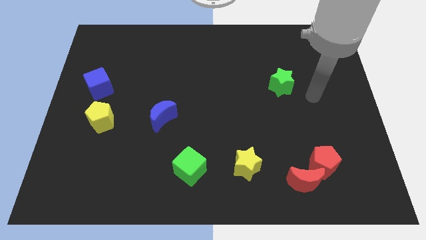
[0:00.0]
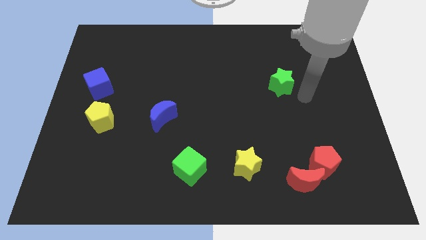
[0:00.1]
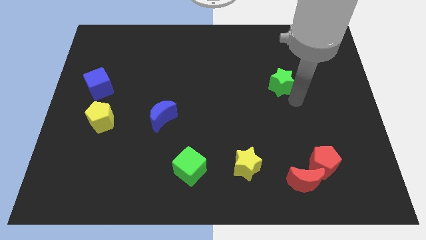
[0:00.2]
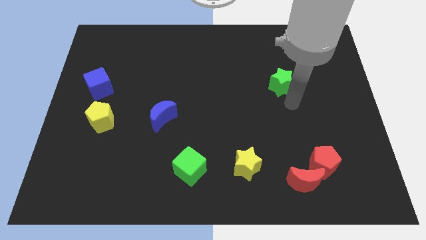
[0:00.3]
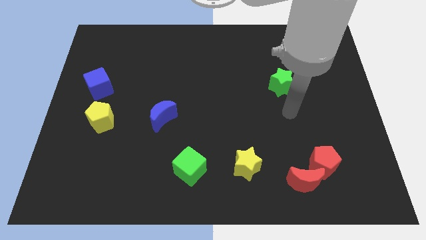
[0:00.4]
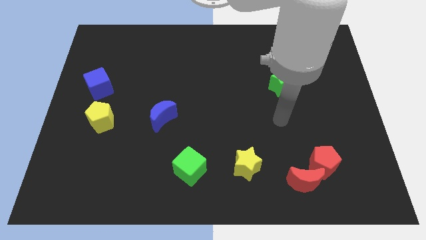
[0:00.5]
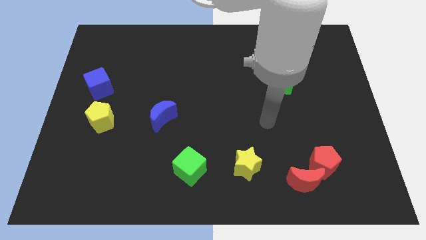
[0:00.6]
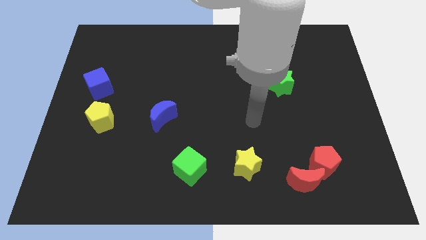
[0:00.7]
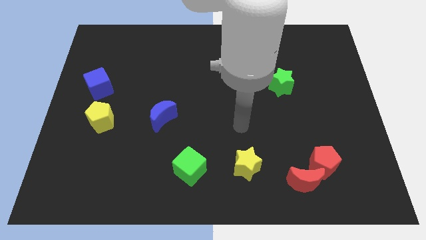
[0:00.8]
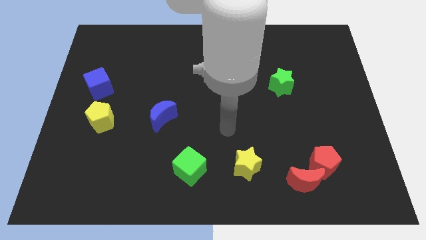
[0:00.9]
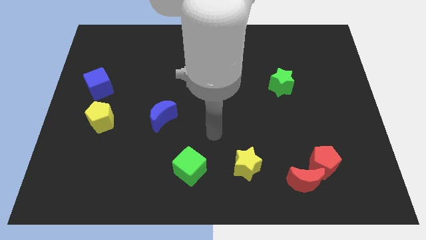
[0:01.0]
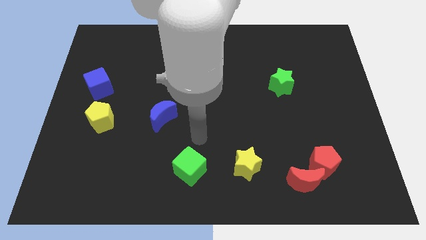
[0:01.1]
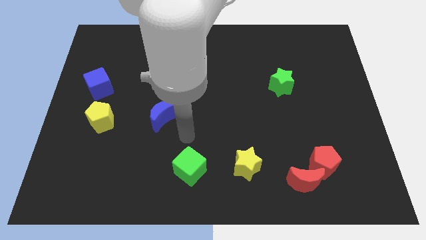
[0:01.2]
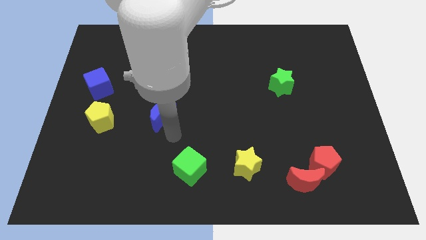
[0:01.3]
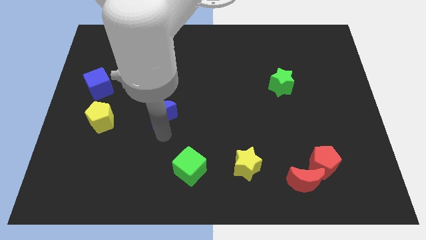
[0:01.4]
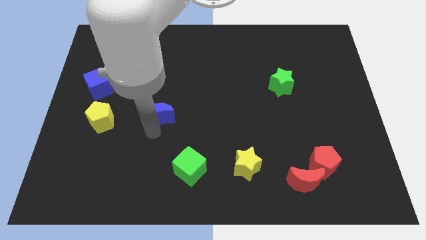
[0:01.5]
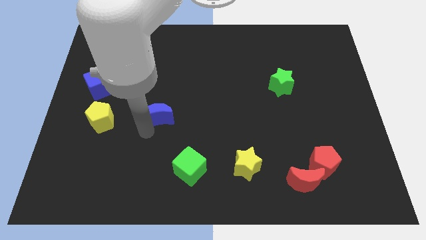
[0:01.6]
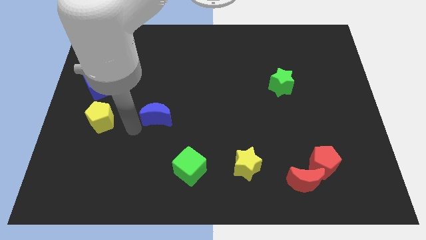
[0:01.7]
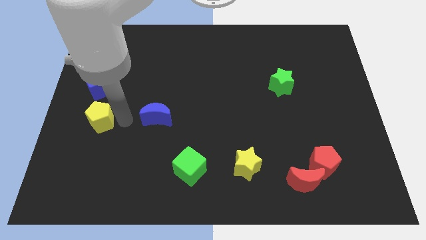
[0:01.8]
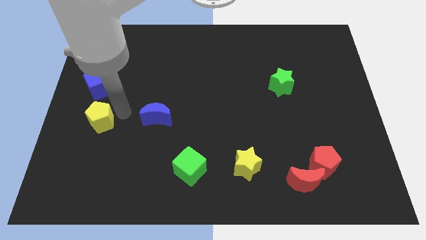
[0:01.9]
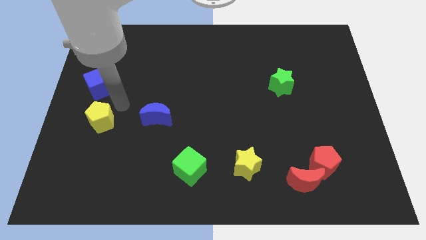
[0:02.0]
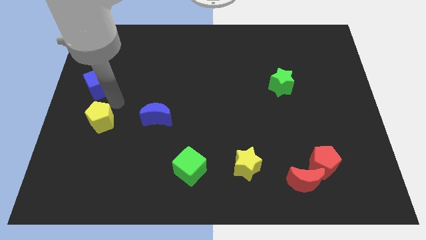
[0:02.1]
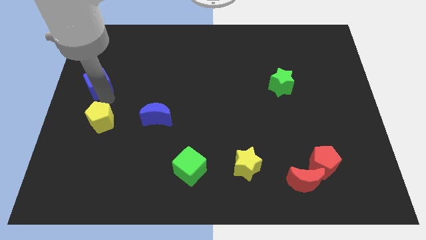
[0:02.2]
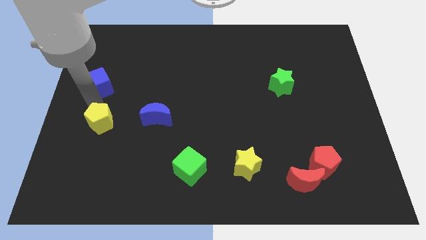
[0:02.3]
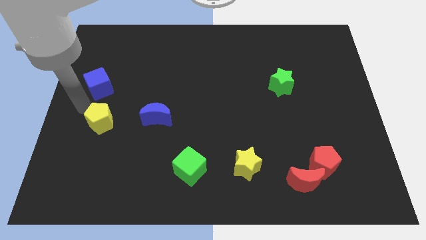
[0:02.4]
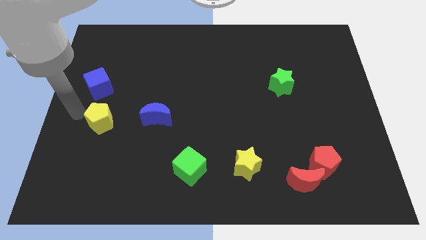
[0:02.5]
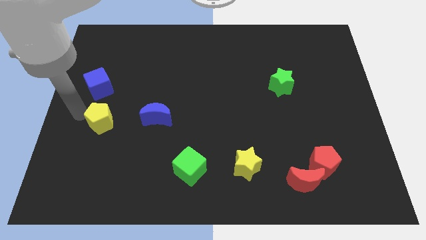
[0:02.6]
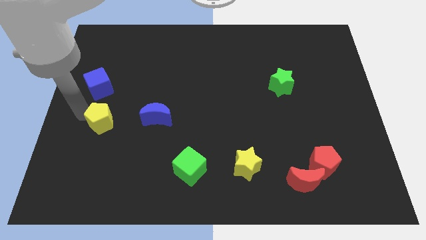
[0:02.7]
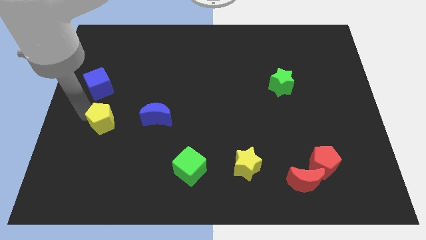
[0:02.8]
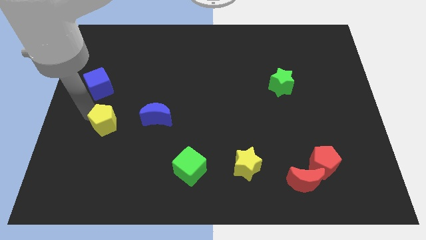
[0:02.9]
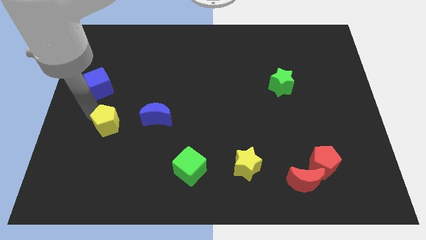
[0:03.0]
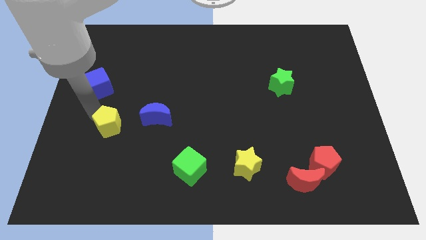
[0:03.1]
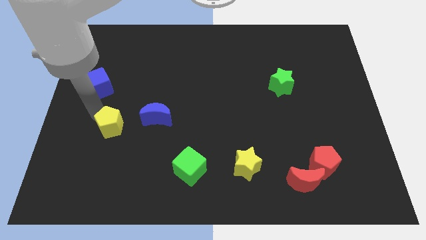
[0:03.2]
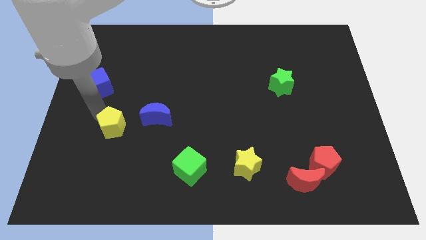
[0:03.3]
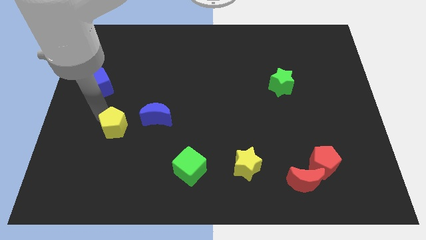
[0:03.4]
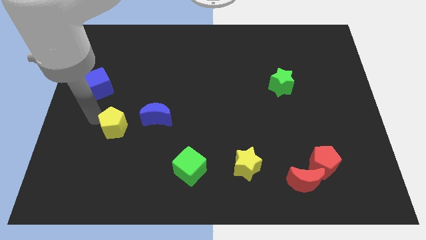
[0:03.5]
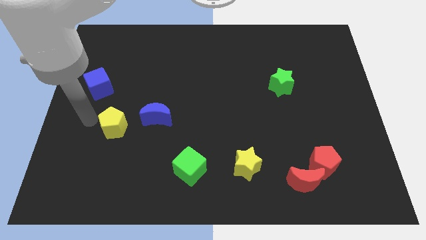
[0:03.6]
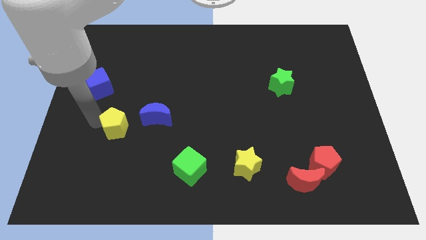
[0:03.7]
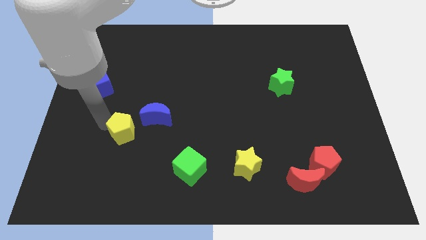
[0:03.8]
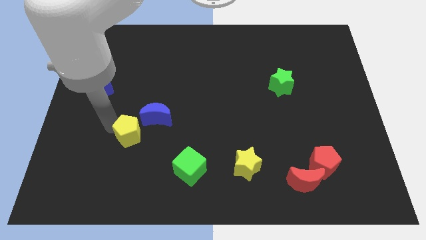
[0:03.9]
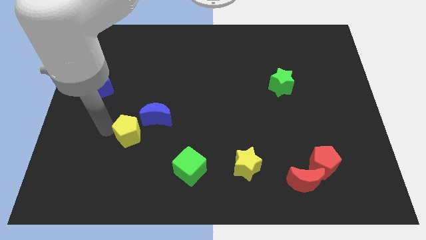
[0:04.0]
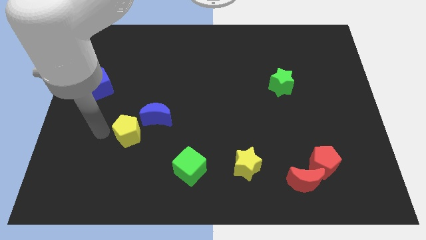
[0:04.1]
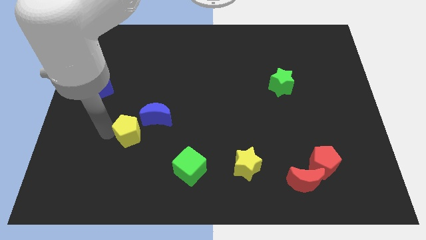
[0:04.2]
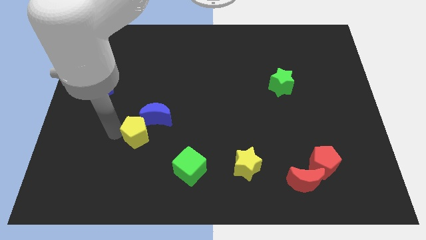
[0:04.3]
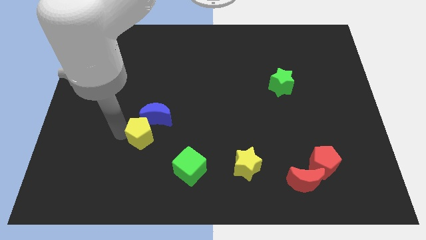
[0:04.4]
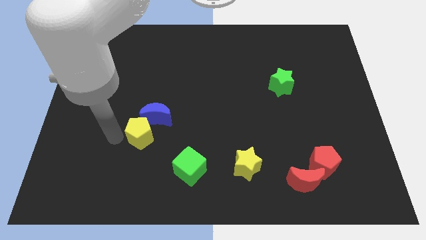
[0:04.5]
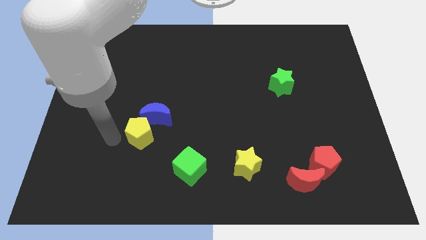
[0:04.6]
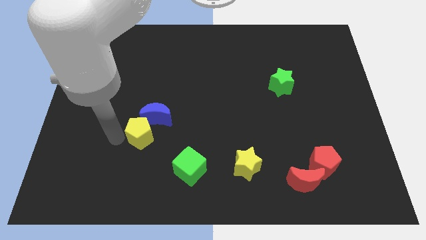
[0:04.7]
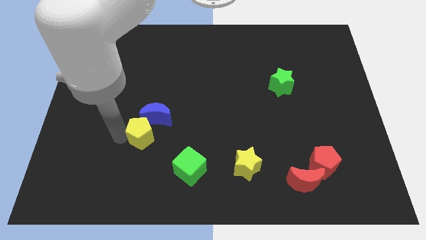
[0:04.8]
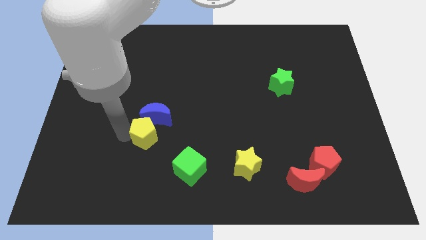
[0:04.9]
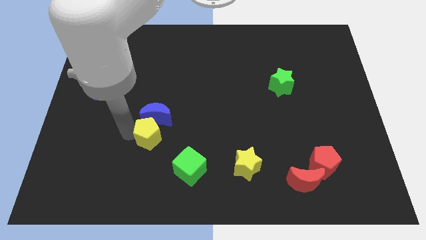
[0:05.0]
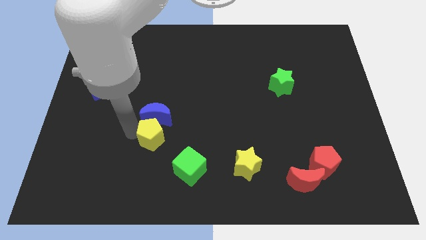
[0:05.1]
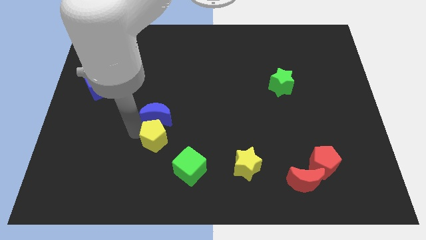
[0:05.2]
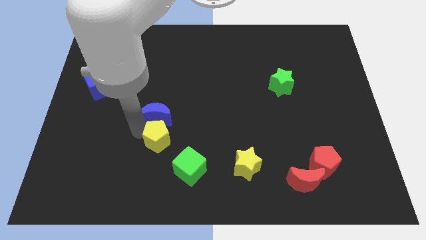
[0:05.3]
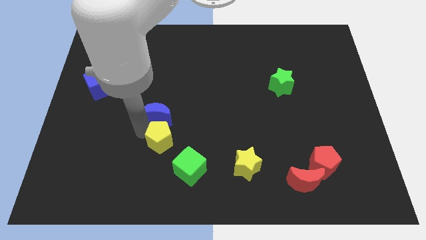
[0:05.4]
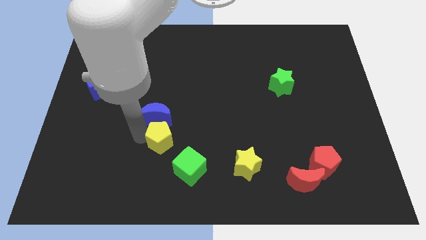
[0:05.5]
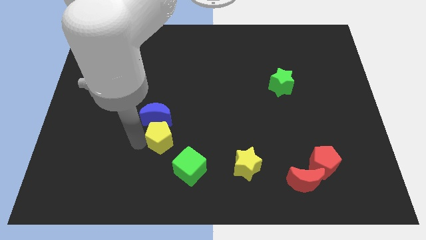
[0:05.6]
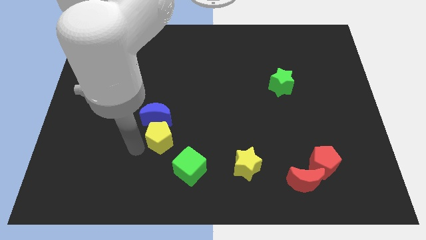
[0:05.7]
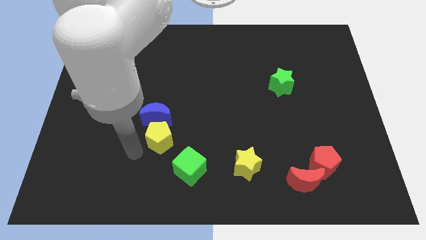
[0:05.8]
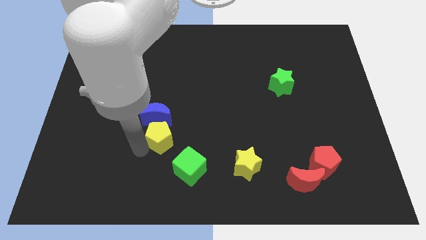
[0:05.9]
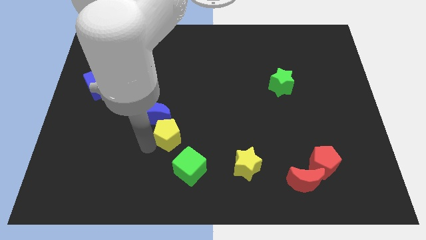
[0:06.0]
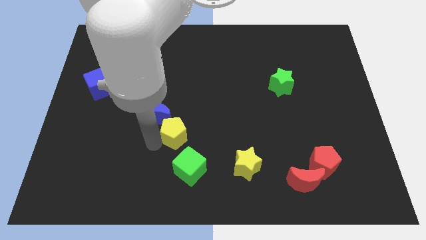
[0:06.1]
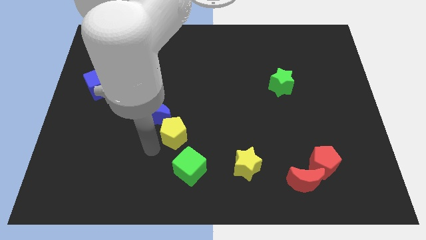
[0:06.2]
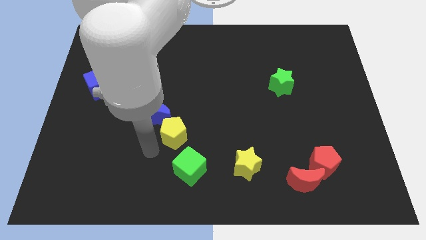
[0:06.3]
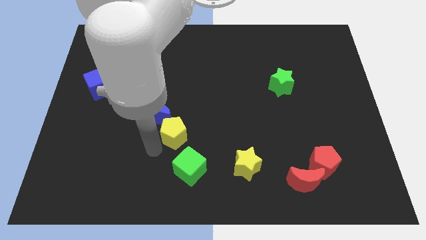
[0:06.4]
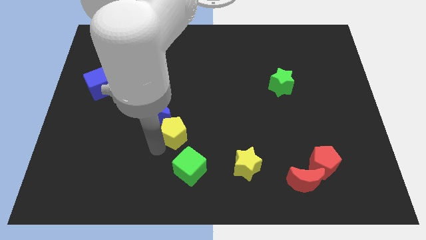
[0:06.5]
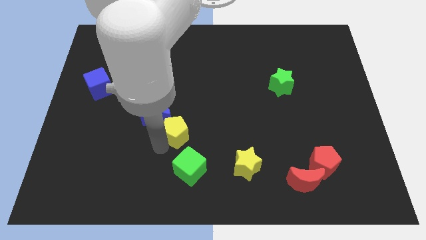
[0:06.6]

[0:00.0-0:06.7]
move the yellow pentagon to the middle

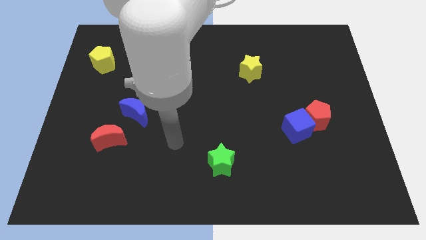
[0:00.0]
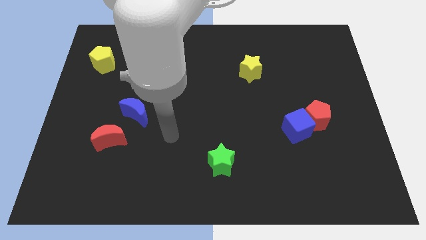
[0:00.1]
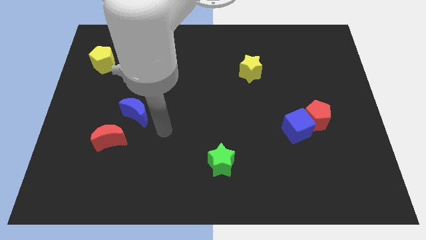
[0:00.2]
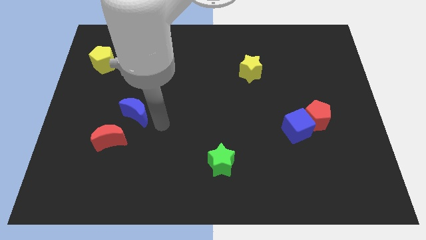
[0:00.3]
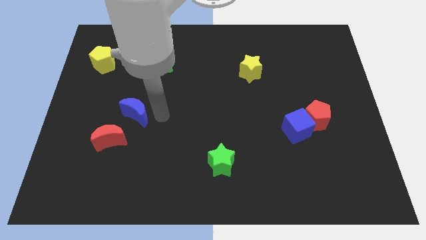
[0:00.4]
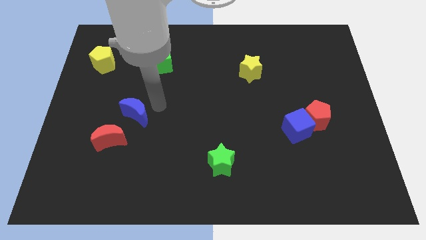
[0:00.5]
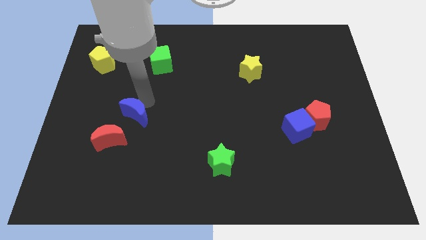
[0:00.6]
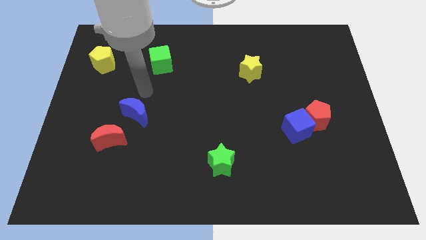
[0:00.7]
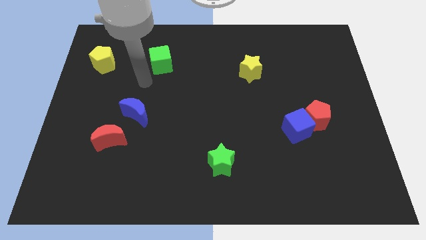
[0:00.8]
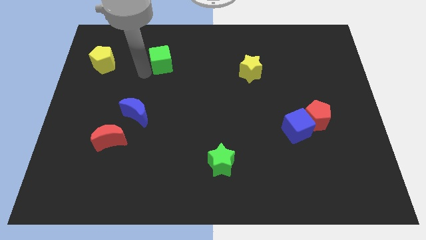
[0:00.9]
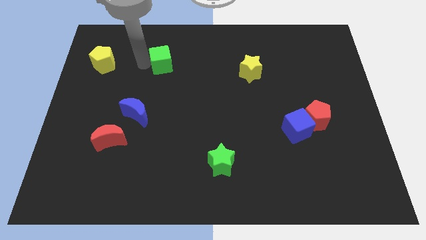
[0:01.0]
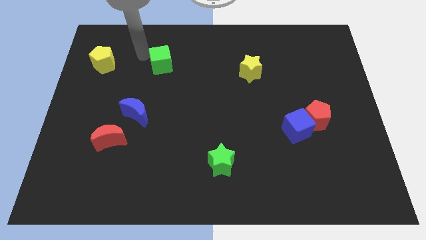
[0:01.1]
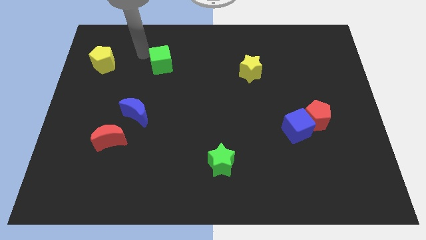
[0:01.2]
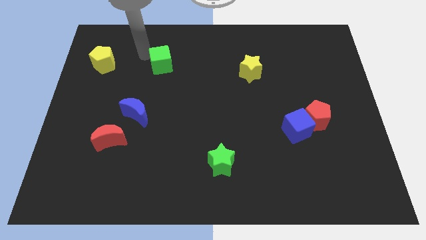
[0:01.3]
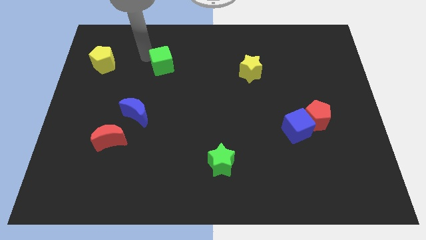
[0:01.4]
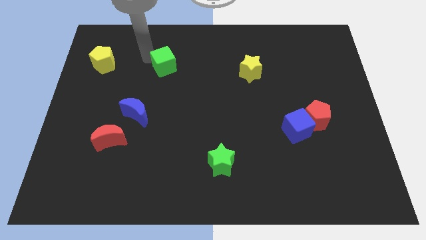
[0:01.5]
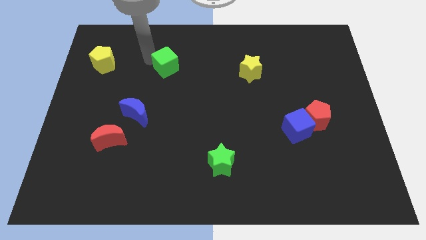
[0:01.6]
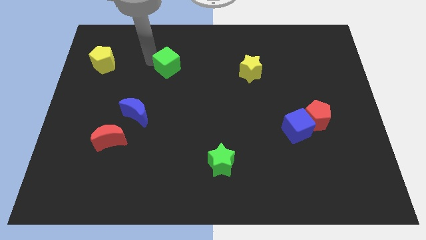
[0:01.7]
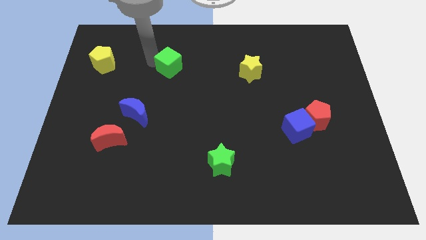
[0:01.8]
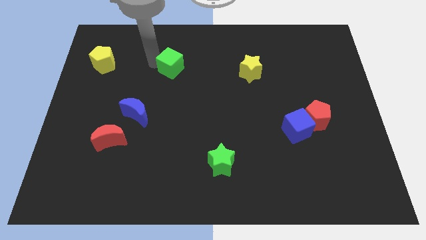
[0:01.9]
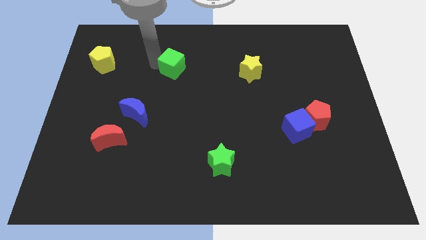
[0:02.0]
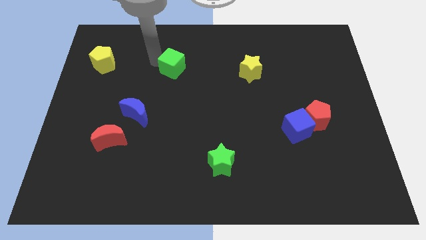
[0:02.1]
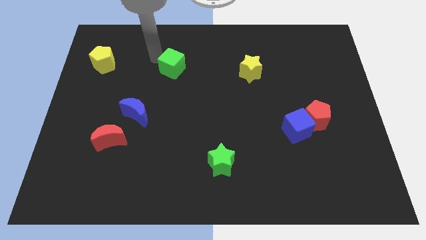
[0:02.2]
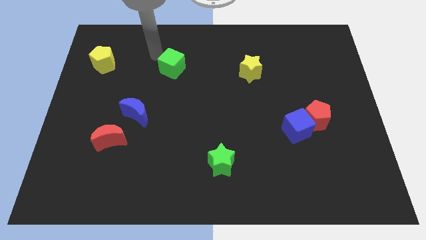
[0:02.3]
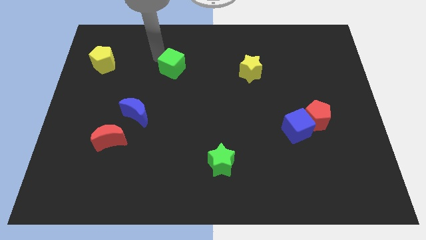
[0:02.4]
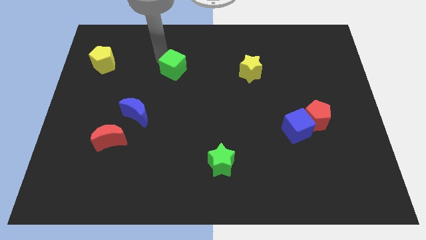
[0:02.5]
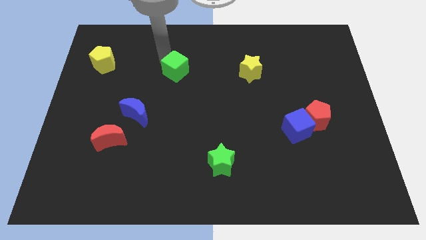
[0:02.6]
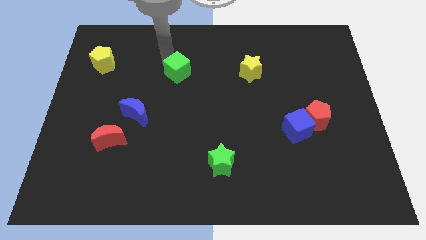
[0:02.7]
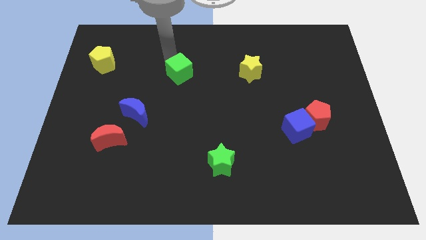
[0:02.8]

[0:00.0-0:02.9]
put the green cube to the middle
